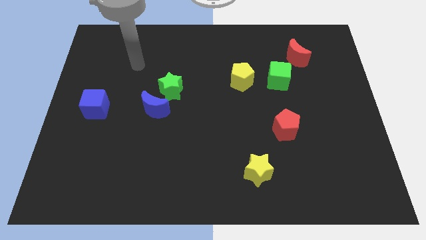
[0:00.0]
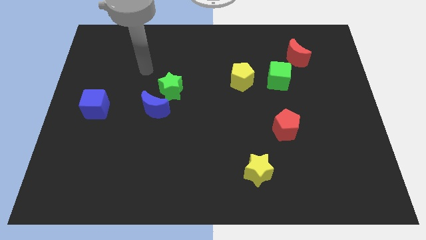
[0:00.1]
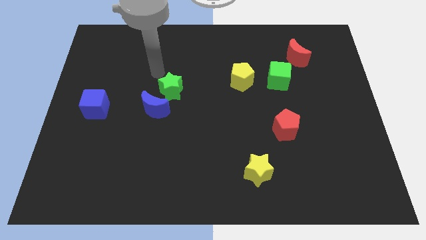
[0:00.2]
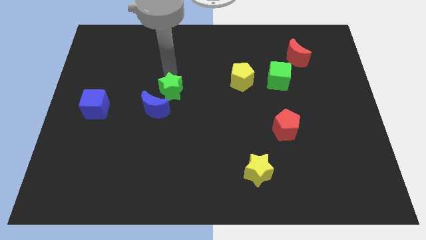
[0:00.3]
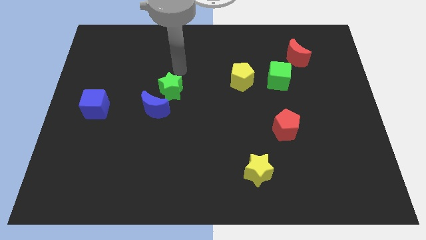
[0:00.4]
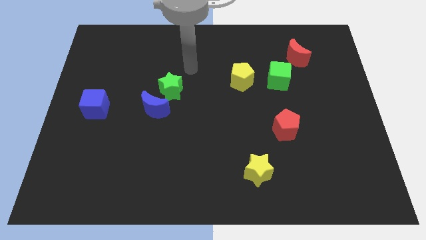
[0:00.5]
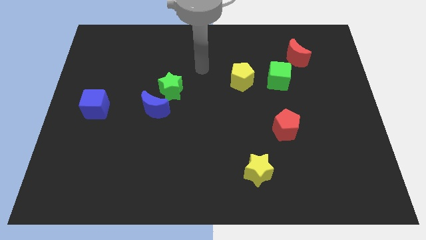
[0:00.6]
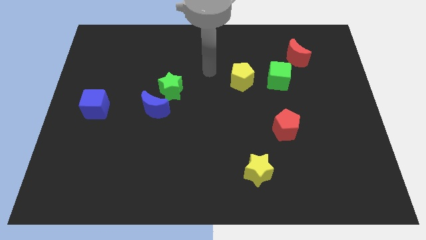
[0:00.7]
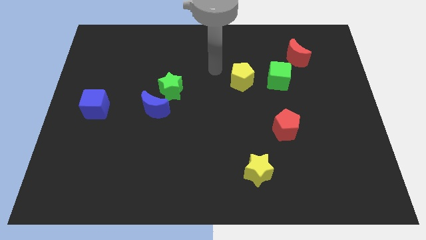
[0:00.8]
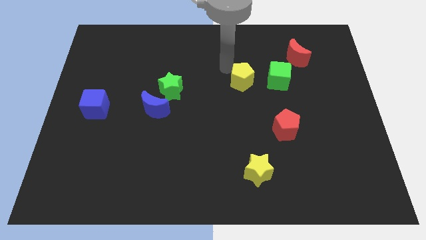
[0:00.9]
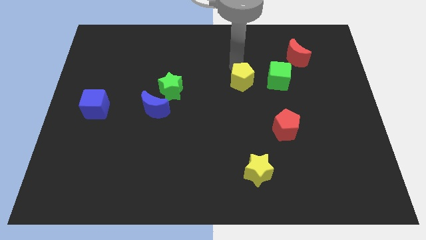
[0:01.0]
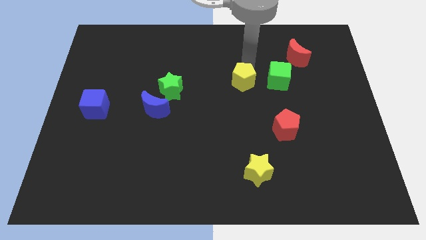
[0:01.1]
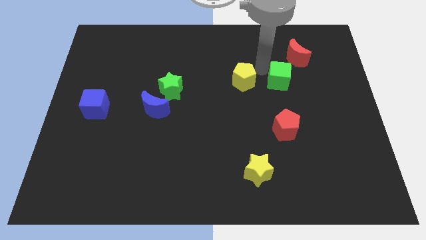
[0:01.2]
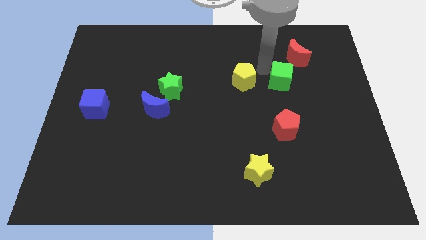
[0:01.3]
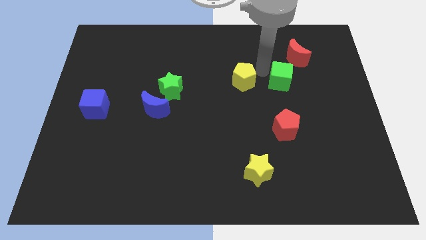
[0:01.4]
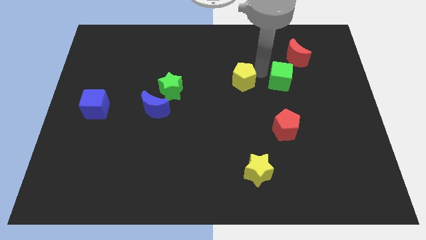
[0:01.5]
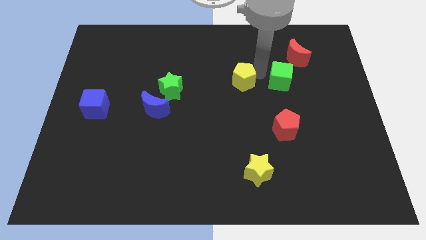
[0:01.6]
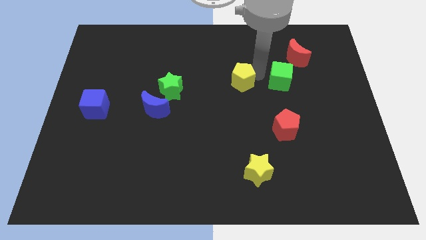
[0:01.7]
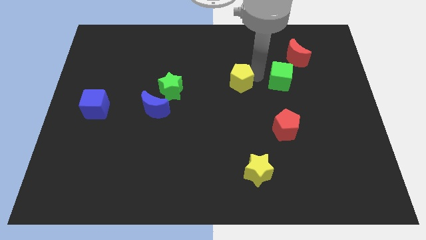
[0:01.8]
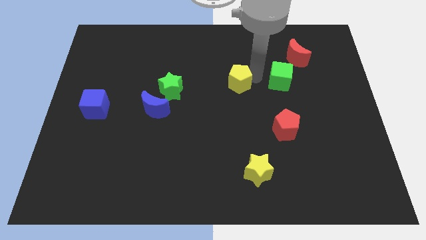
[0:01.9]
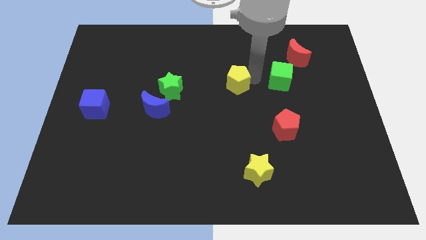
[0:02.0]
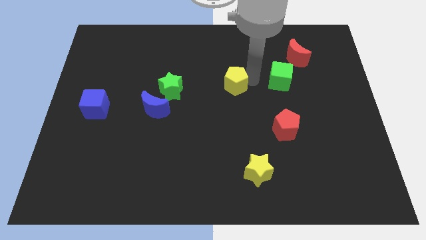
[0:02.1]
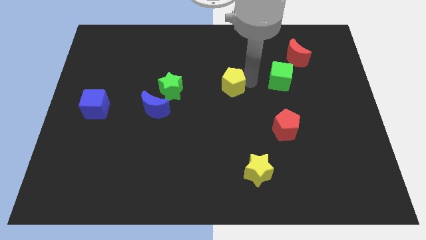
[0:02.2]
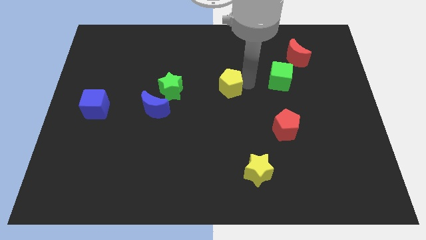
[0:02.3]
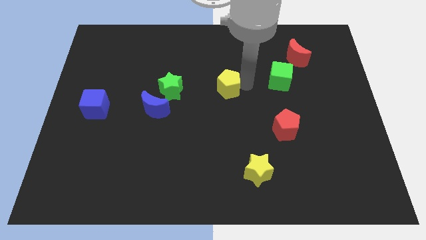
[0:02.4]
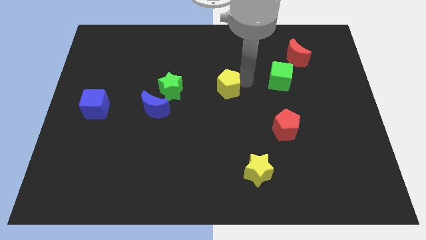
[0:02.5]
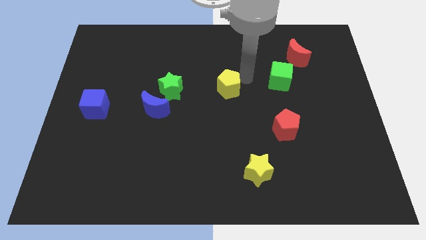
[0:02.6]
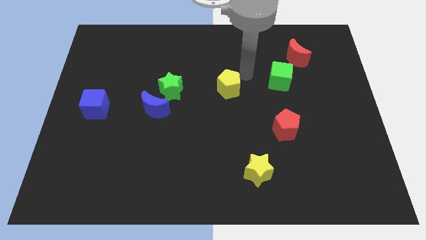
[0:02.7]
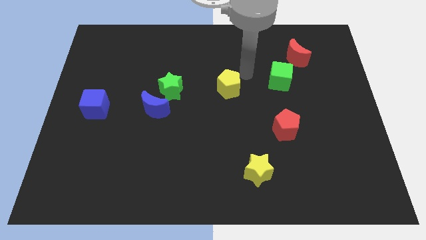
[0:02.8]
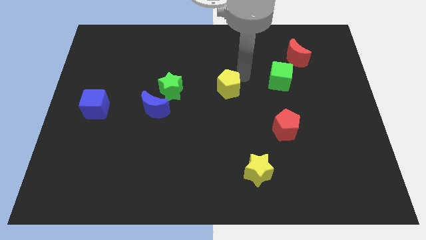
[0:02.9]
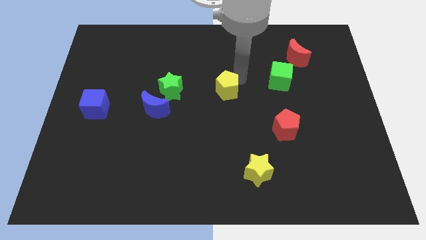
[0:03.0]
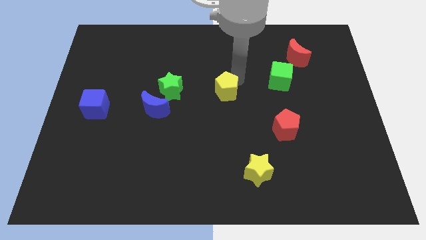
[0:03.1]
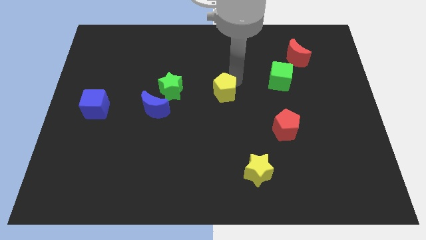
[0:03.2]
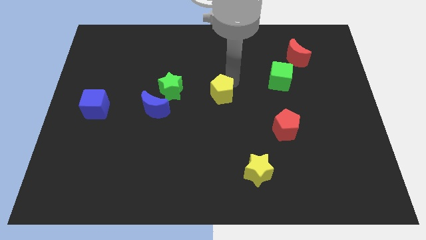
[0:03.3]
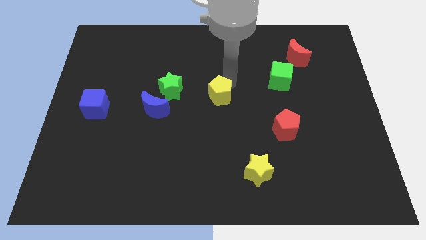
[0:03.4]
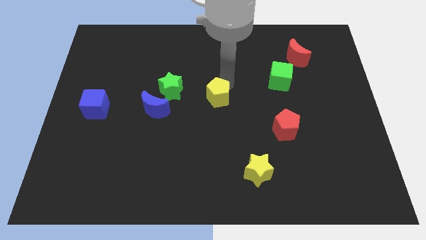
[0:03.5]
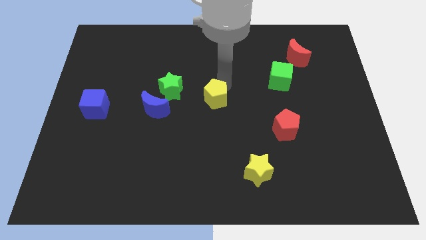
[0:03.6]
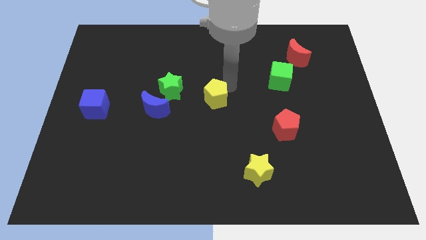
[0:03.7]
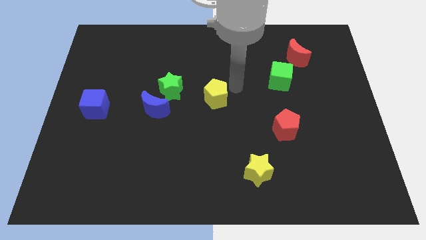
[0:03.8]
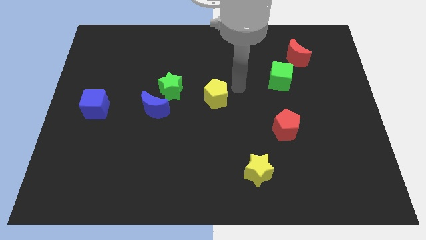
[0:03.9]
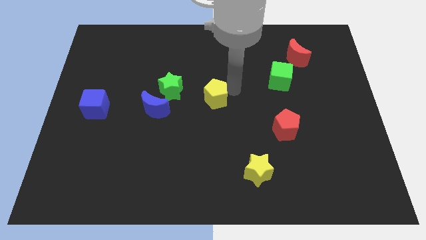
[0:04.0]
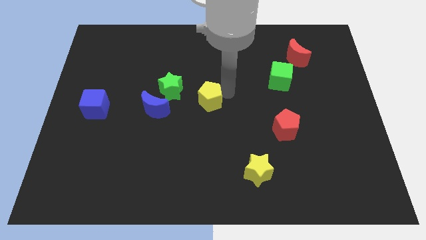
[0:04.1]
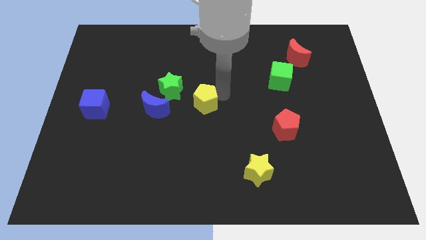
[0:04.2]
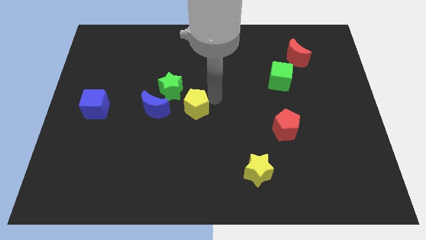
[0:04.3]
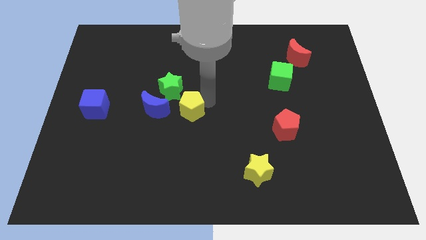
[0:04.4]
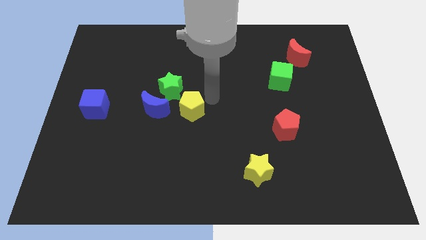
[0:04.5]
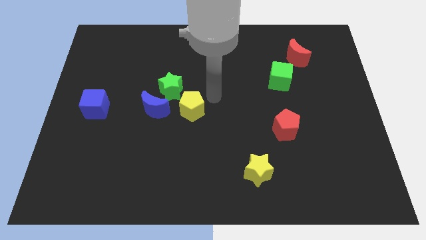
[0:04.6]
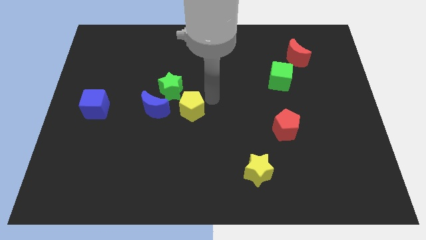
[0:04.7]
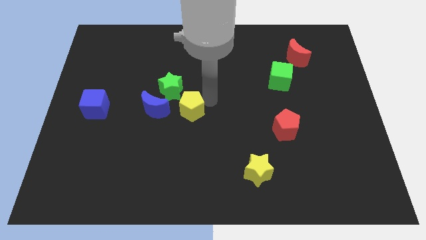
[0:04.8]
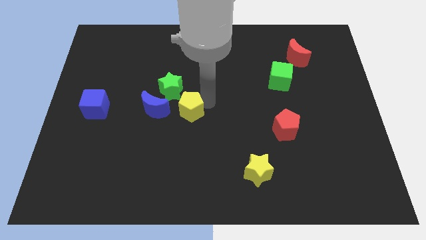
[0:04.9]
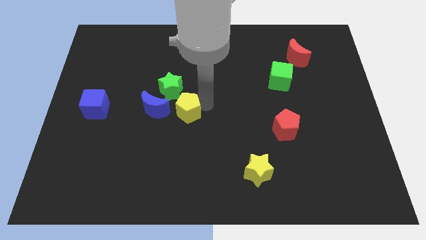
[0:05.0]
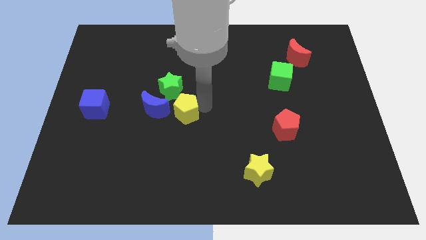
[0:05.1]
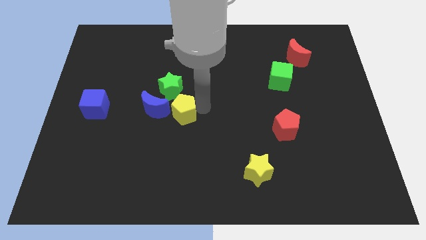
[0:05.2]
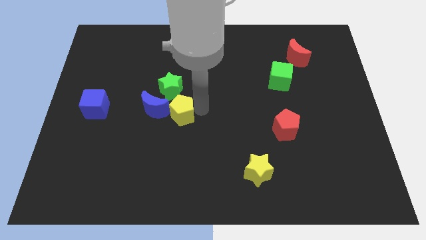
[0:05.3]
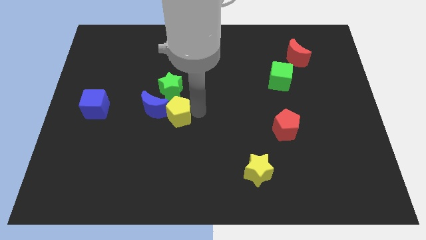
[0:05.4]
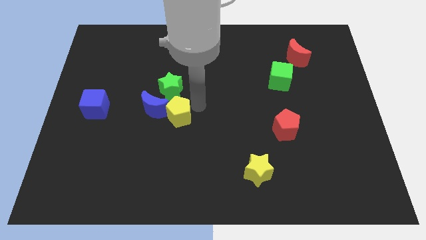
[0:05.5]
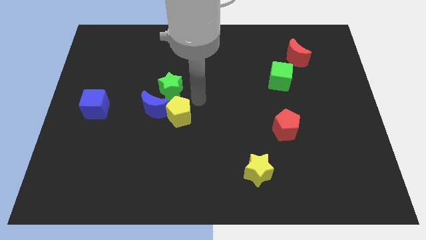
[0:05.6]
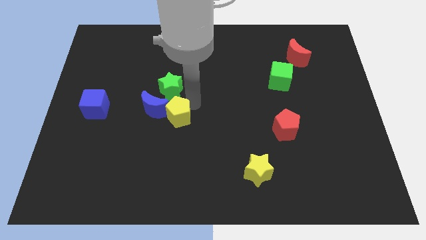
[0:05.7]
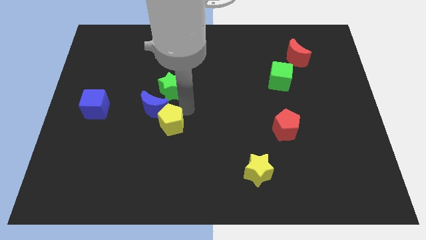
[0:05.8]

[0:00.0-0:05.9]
push the yellow pentagon downwards and to the left

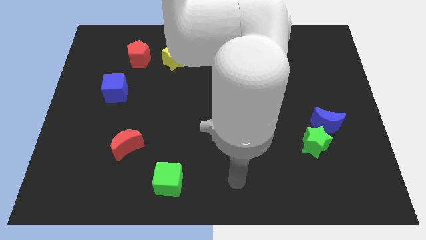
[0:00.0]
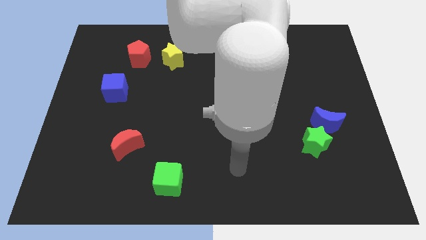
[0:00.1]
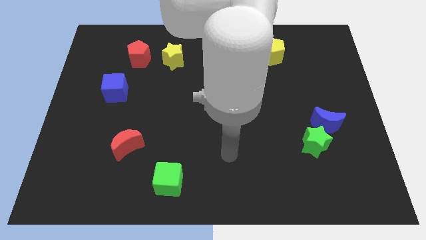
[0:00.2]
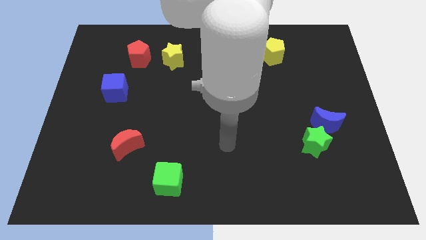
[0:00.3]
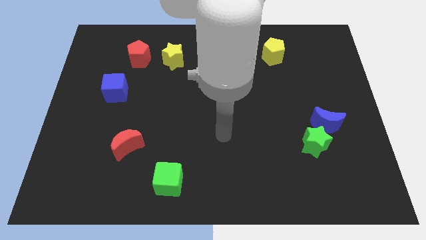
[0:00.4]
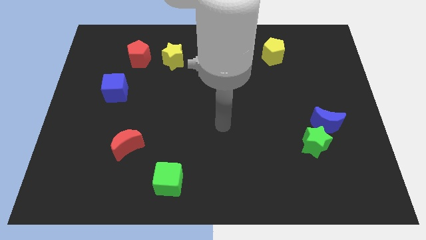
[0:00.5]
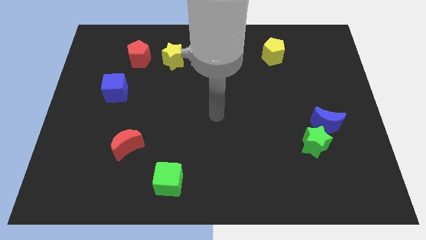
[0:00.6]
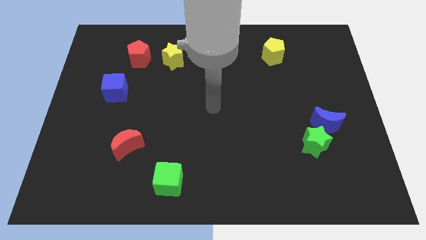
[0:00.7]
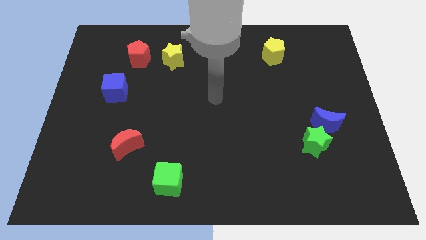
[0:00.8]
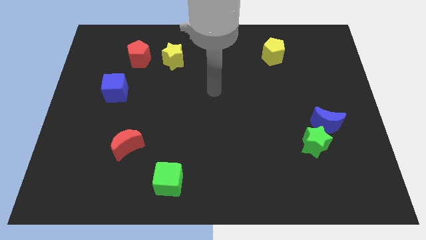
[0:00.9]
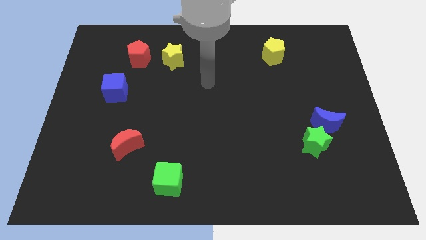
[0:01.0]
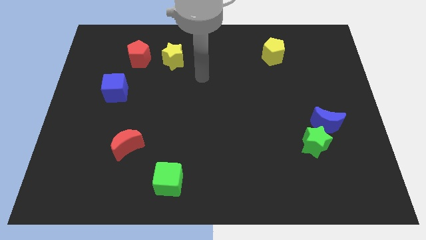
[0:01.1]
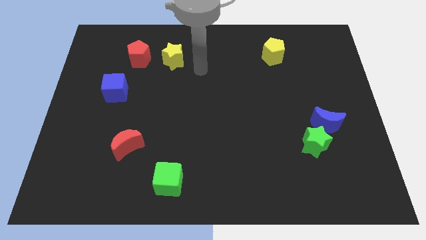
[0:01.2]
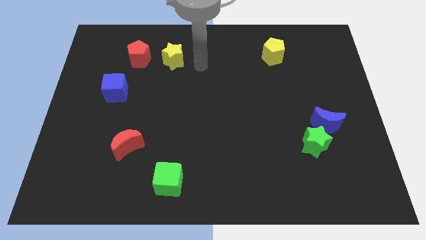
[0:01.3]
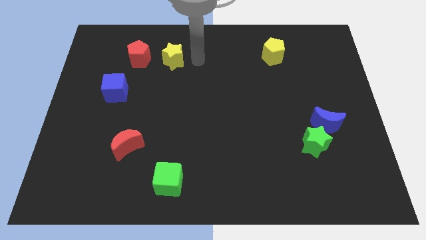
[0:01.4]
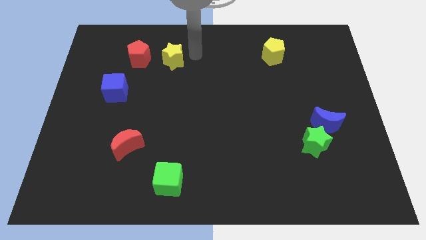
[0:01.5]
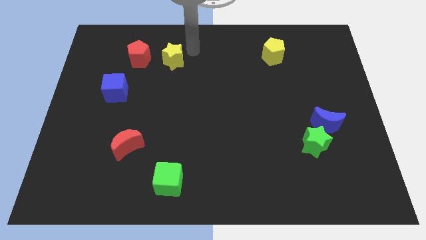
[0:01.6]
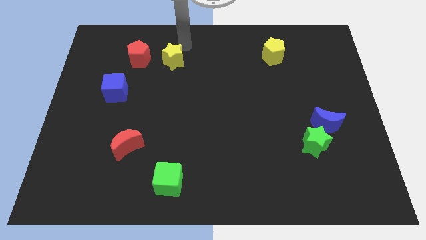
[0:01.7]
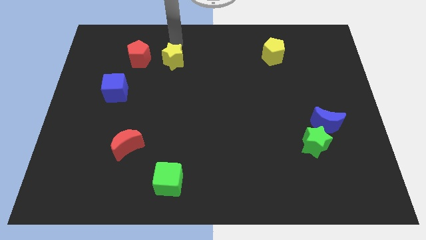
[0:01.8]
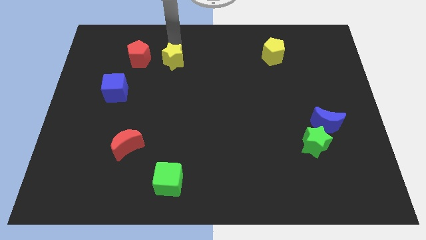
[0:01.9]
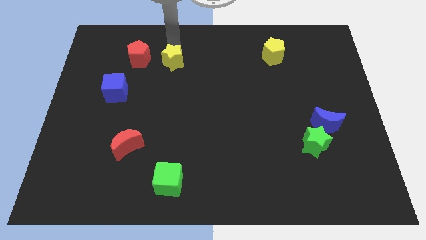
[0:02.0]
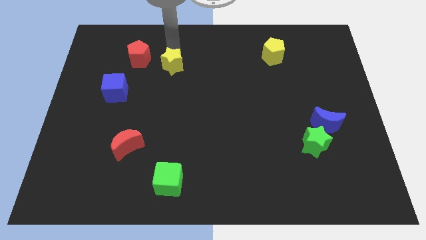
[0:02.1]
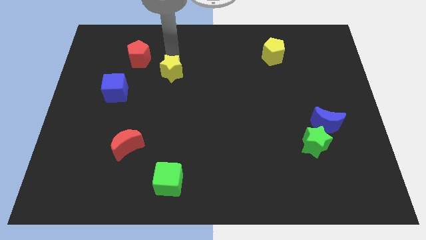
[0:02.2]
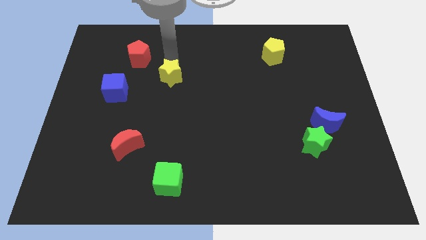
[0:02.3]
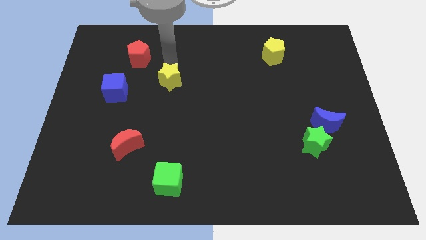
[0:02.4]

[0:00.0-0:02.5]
slightly push the yellow star downwards
